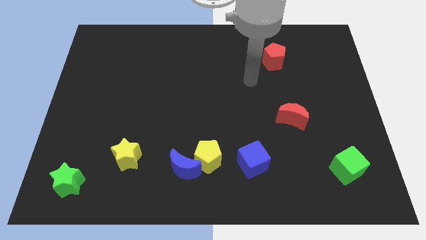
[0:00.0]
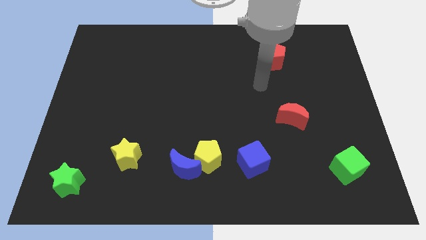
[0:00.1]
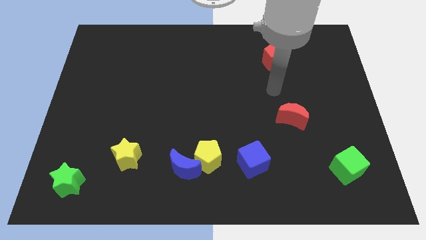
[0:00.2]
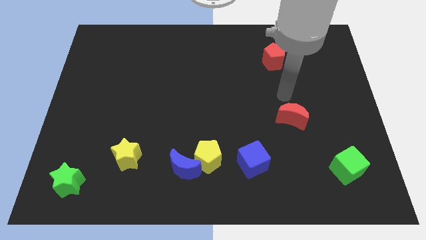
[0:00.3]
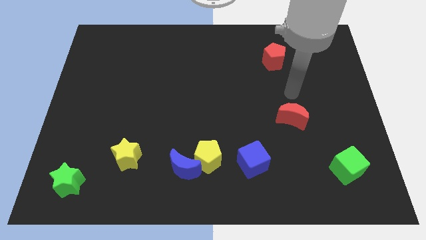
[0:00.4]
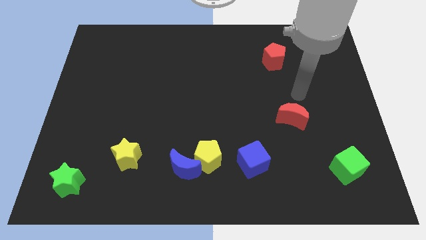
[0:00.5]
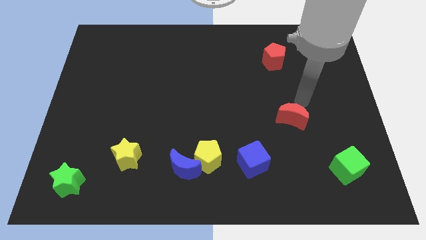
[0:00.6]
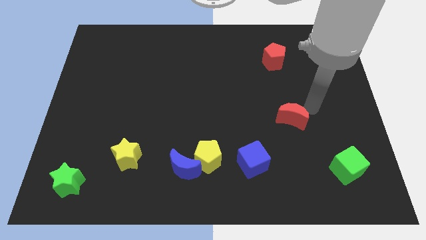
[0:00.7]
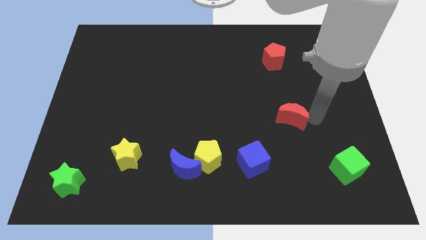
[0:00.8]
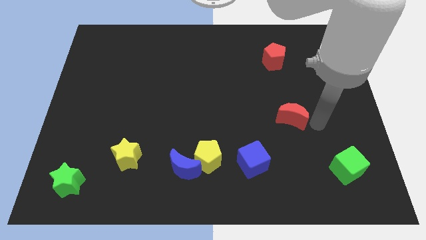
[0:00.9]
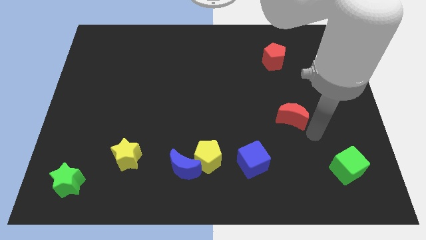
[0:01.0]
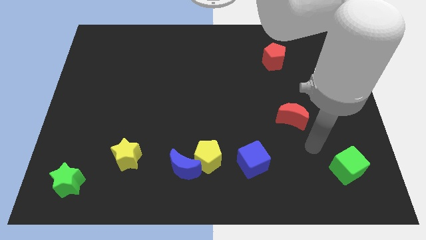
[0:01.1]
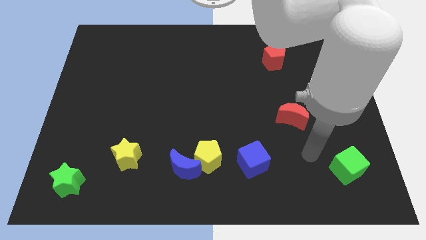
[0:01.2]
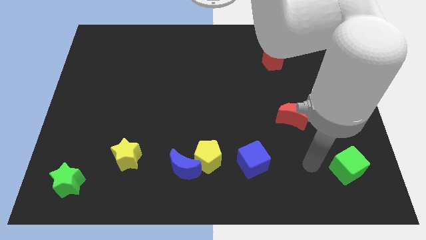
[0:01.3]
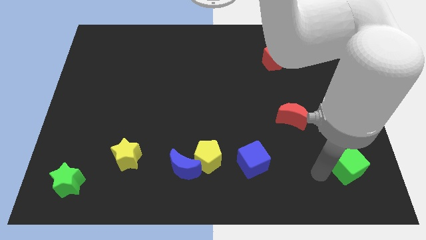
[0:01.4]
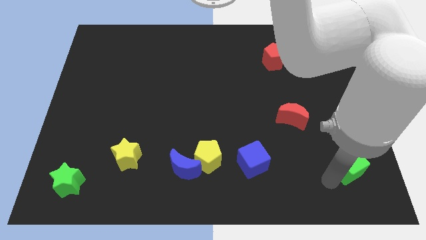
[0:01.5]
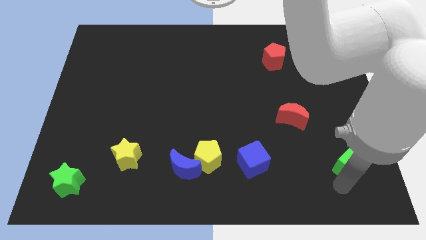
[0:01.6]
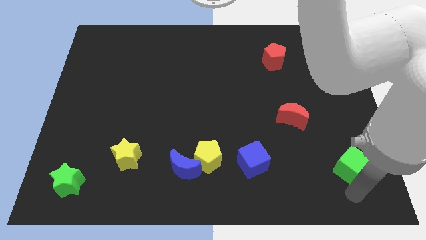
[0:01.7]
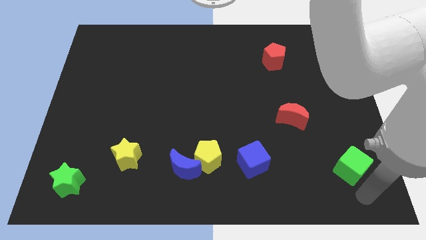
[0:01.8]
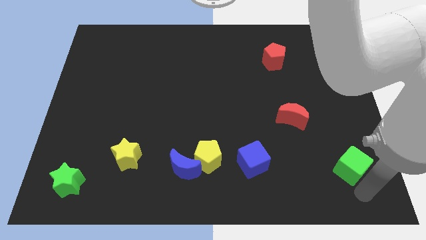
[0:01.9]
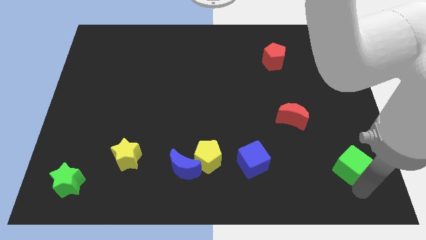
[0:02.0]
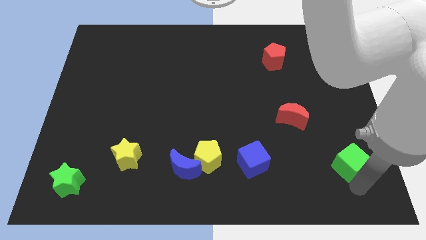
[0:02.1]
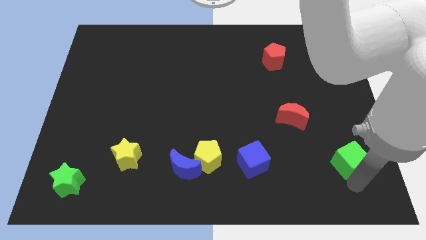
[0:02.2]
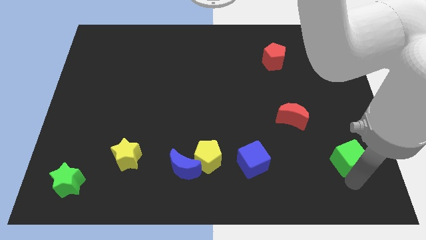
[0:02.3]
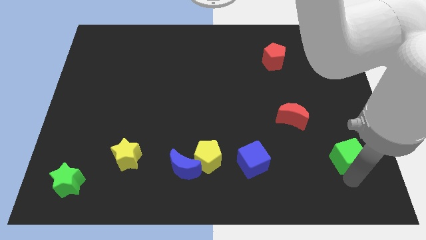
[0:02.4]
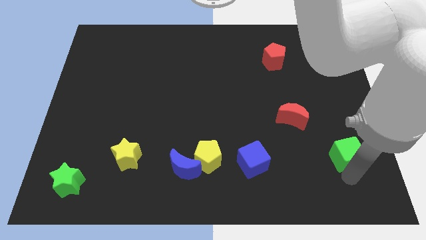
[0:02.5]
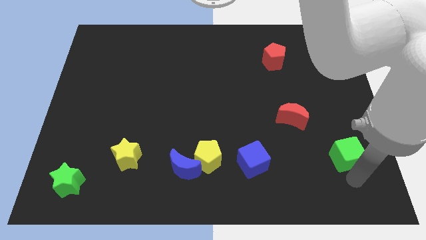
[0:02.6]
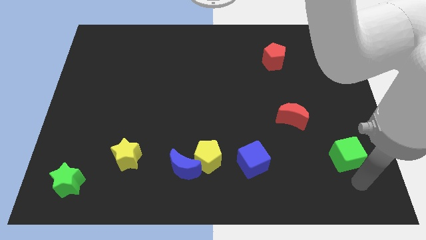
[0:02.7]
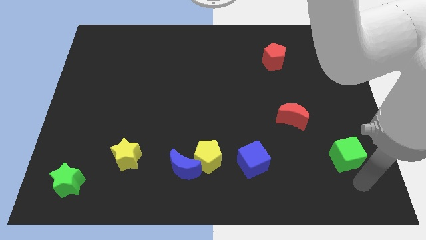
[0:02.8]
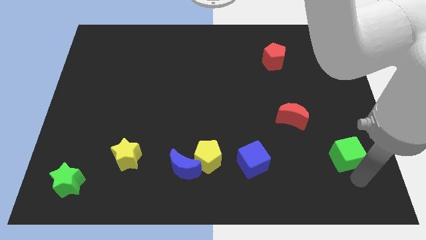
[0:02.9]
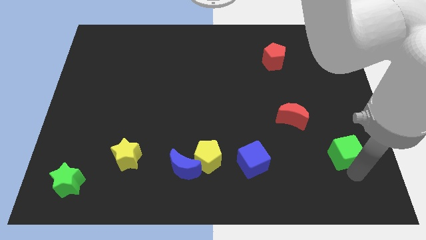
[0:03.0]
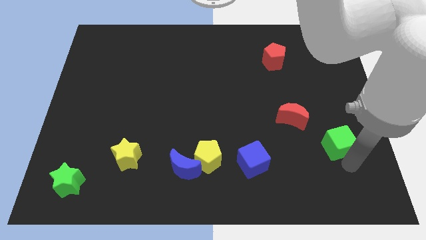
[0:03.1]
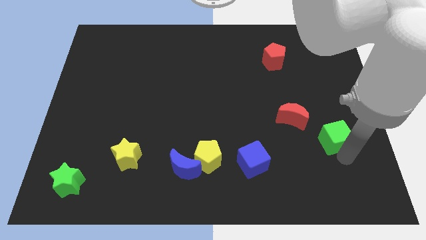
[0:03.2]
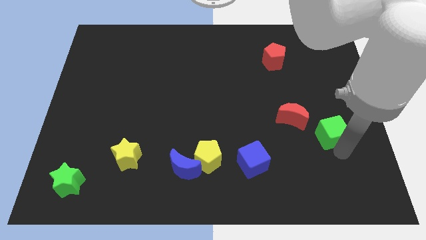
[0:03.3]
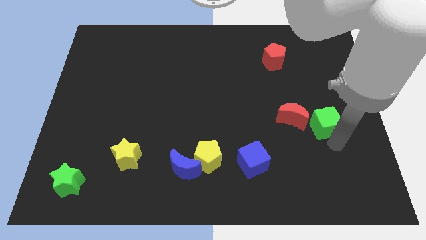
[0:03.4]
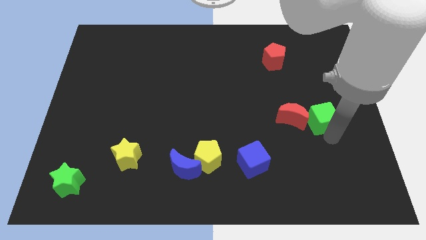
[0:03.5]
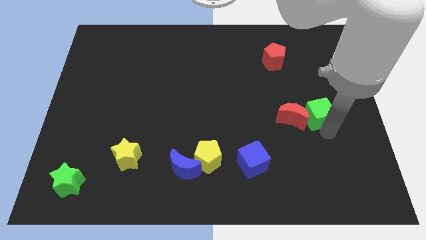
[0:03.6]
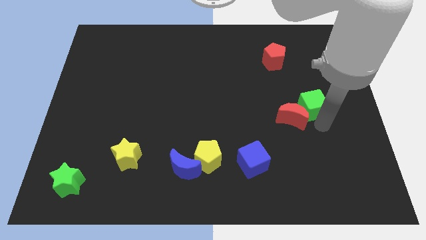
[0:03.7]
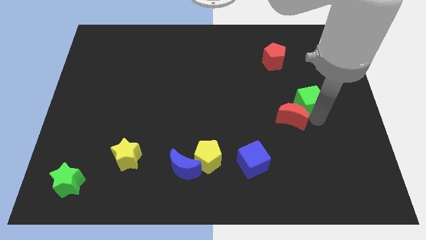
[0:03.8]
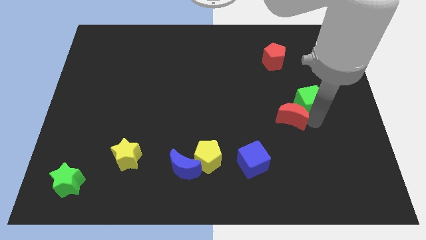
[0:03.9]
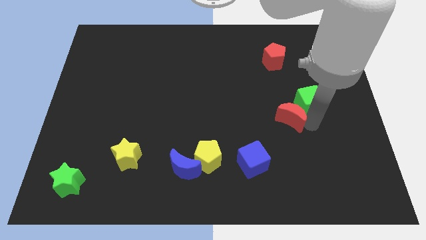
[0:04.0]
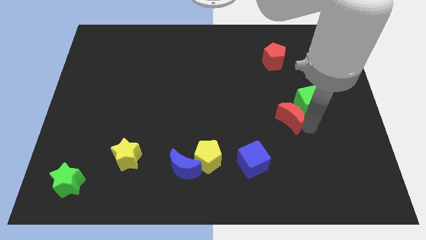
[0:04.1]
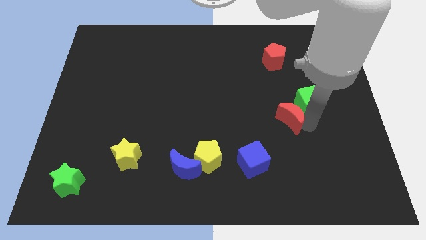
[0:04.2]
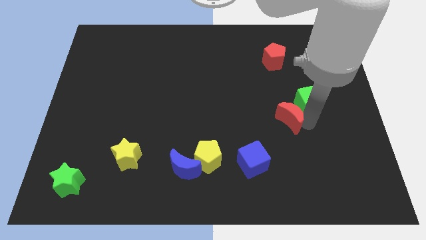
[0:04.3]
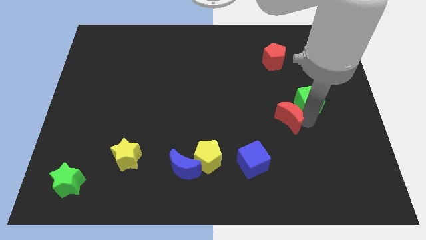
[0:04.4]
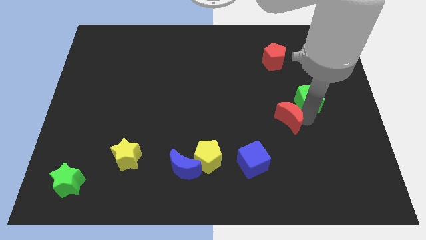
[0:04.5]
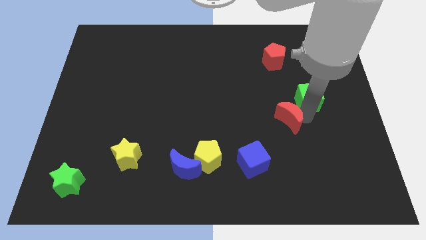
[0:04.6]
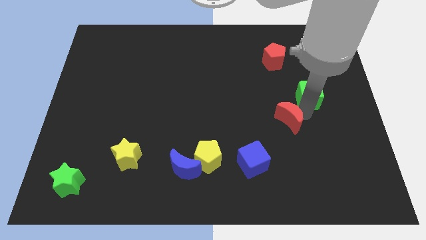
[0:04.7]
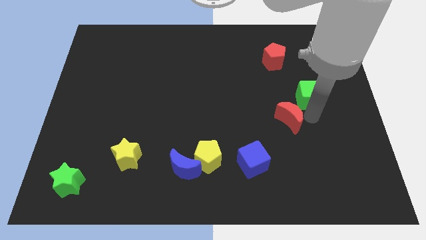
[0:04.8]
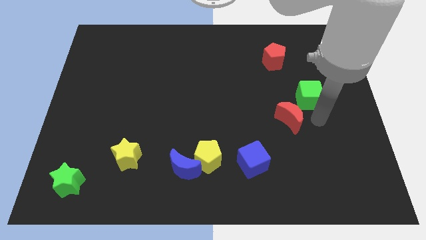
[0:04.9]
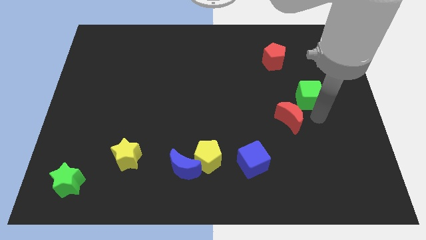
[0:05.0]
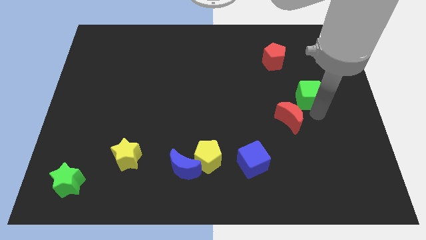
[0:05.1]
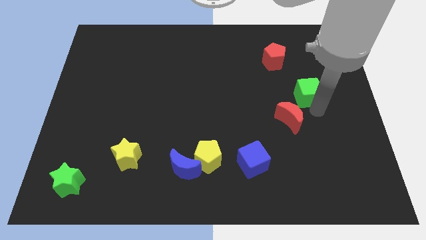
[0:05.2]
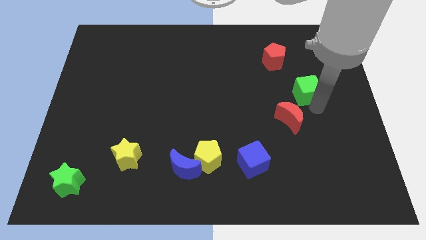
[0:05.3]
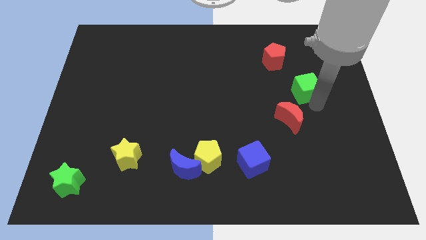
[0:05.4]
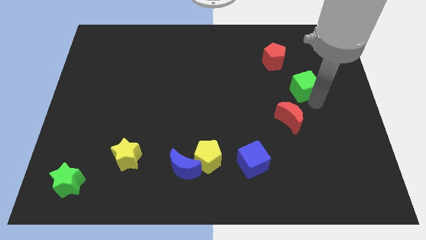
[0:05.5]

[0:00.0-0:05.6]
slide the green cube to the bottom right of the red pentagon

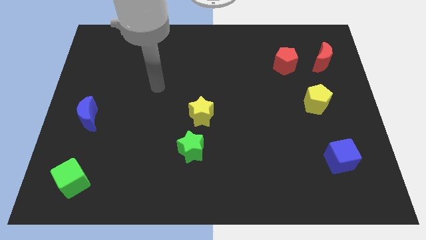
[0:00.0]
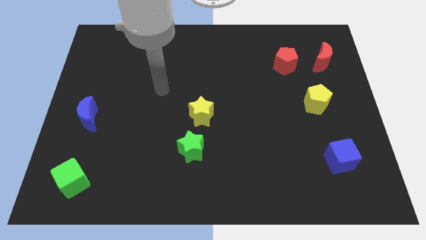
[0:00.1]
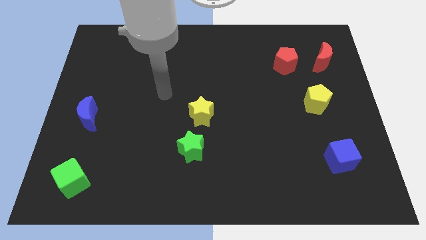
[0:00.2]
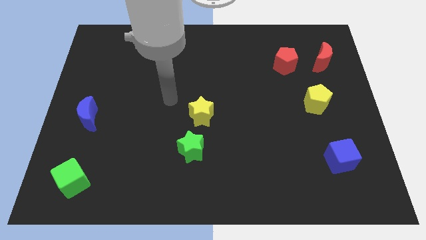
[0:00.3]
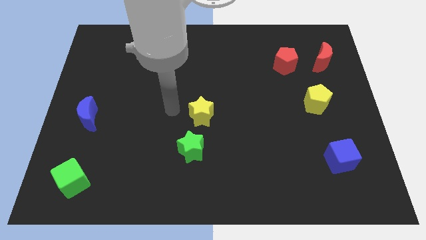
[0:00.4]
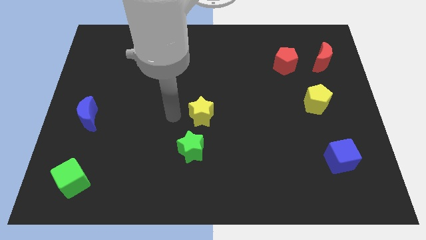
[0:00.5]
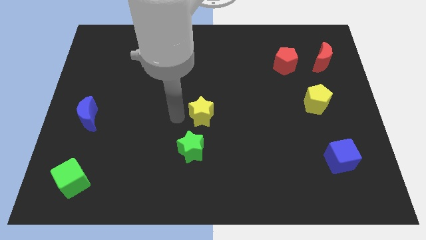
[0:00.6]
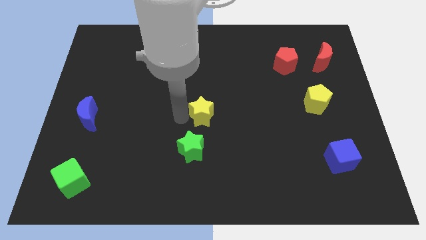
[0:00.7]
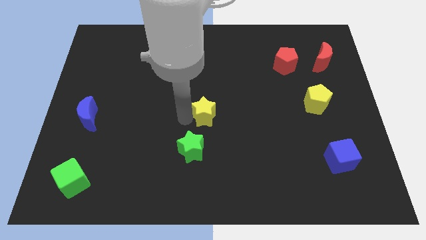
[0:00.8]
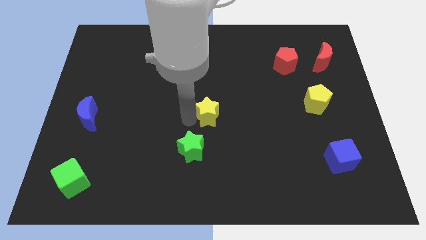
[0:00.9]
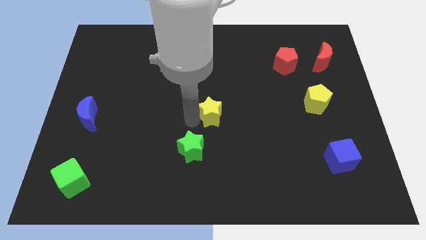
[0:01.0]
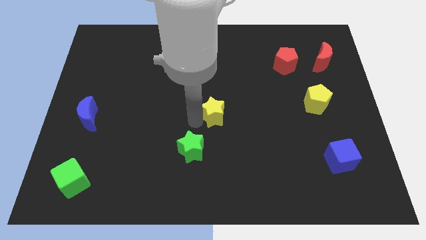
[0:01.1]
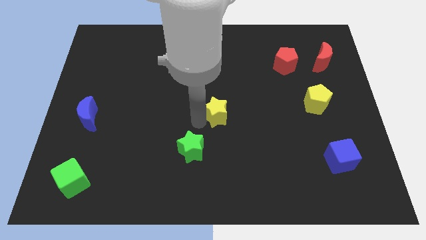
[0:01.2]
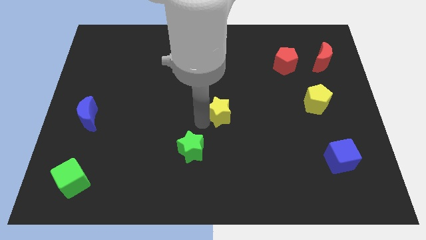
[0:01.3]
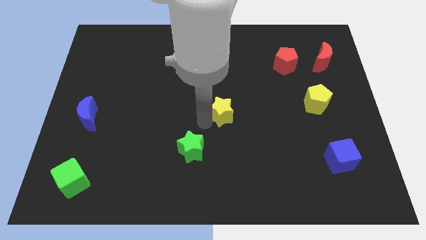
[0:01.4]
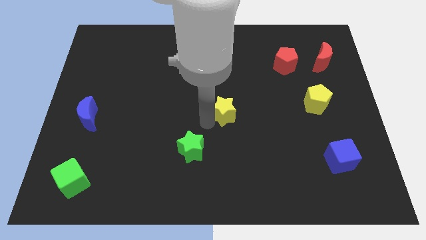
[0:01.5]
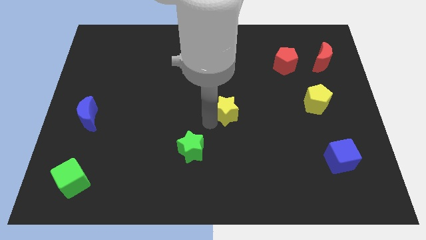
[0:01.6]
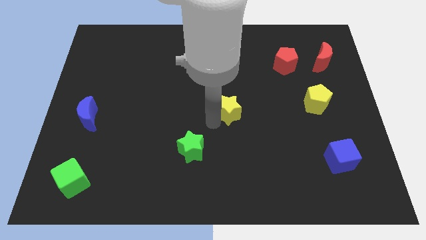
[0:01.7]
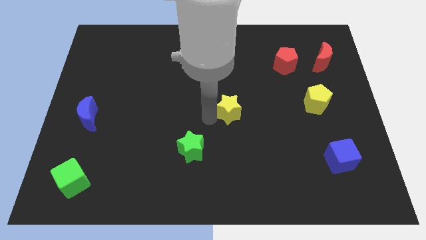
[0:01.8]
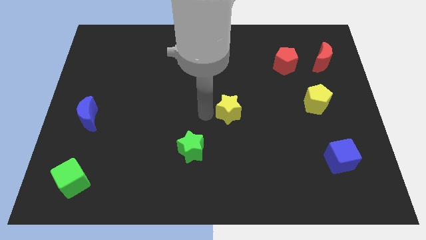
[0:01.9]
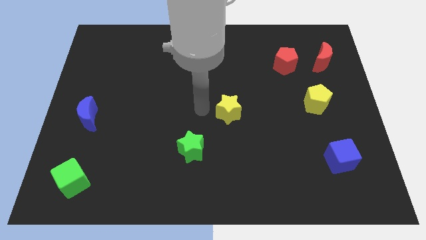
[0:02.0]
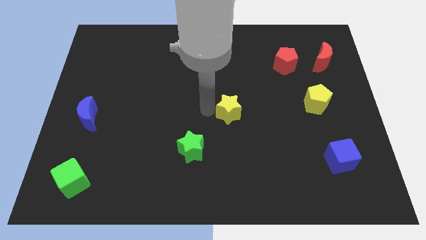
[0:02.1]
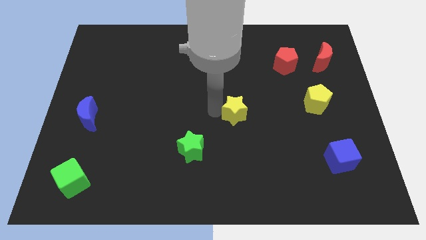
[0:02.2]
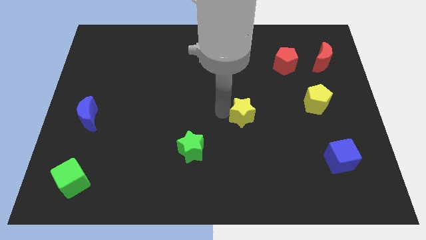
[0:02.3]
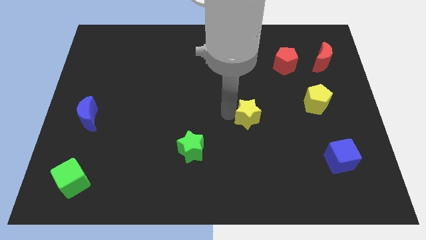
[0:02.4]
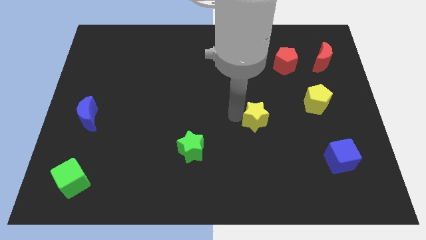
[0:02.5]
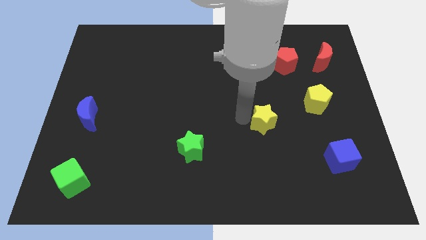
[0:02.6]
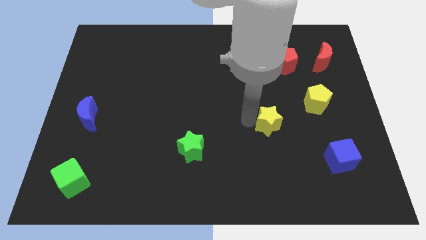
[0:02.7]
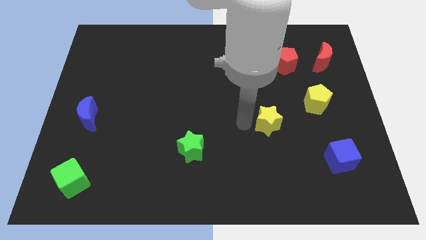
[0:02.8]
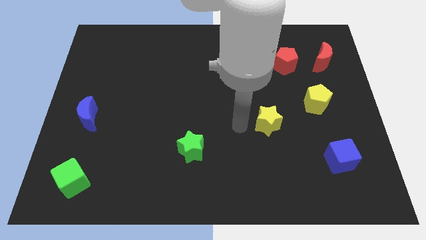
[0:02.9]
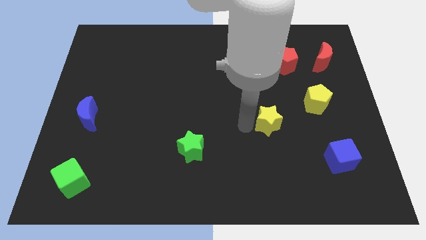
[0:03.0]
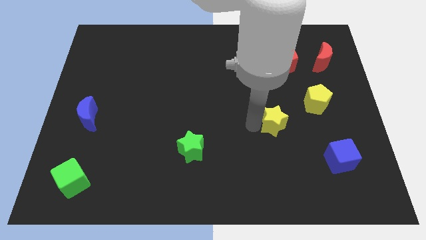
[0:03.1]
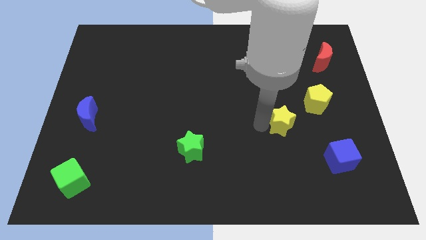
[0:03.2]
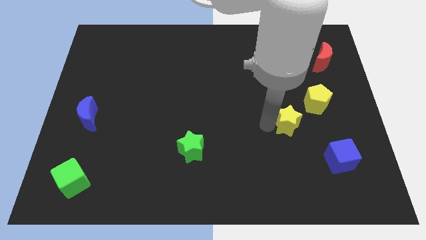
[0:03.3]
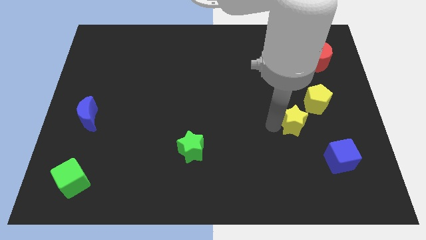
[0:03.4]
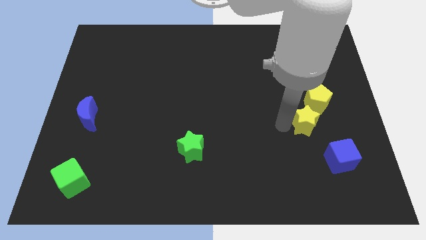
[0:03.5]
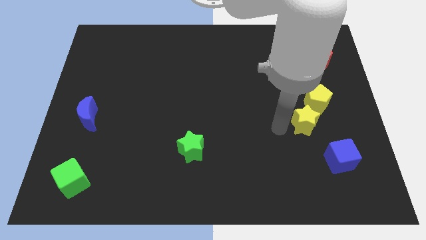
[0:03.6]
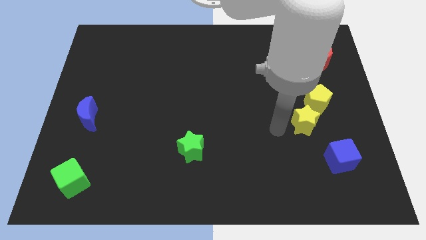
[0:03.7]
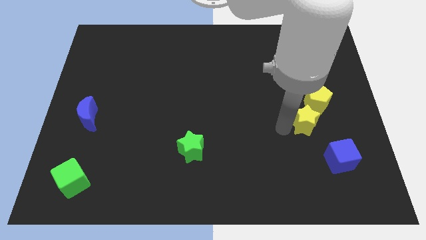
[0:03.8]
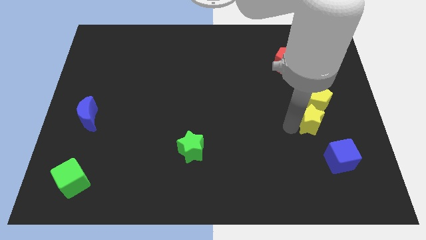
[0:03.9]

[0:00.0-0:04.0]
put the yellow star to the top of the blue cube
